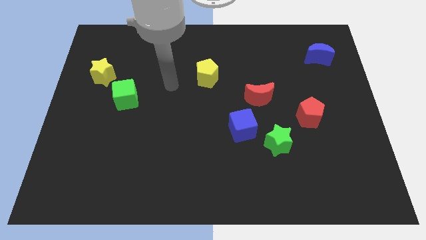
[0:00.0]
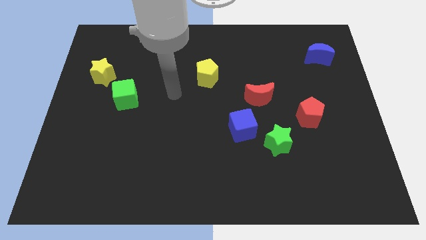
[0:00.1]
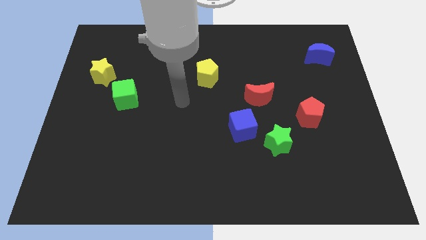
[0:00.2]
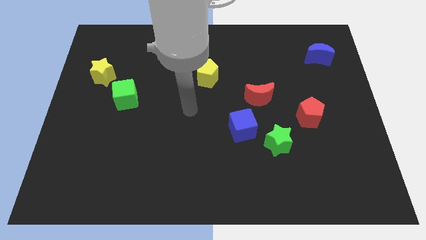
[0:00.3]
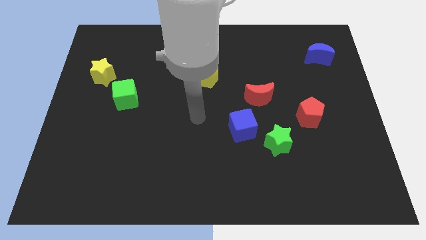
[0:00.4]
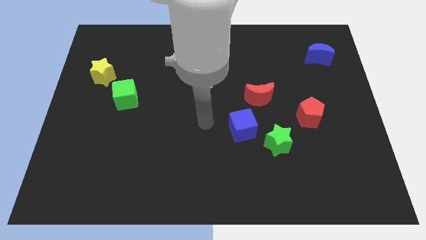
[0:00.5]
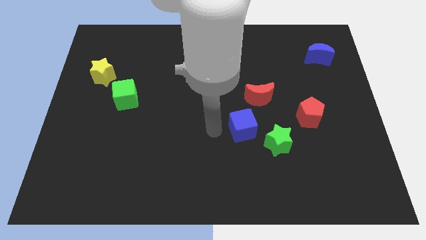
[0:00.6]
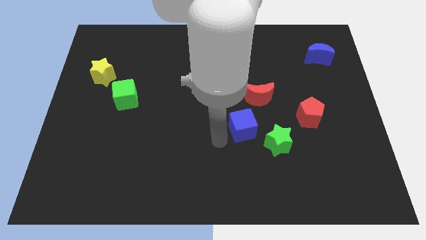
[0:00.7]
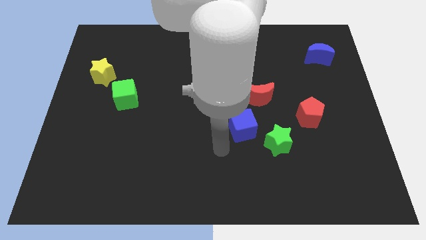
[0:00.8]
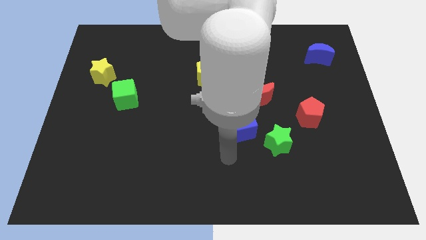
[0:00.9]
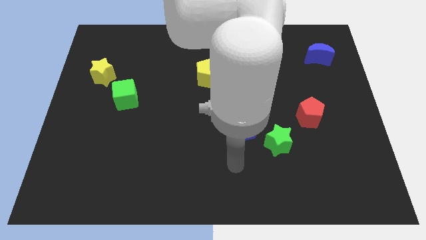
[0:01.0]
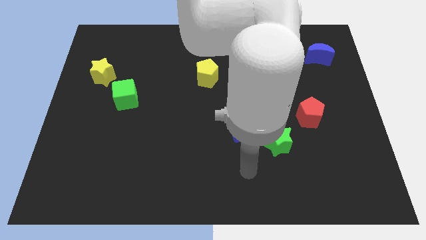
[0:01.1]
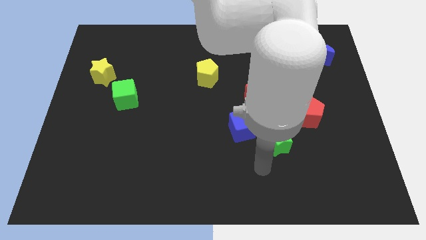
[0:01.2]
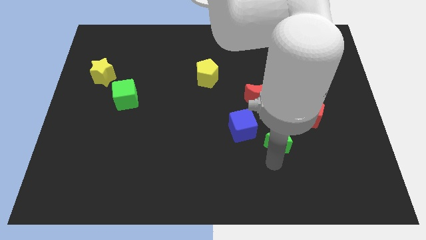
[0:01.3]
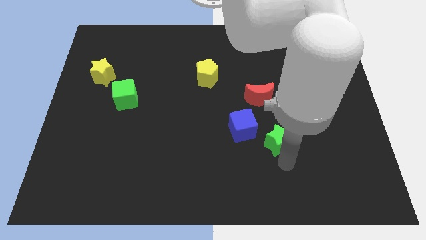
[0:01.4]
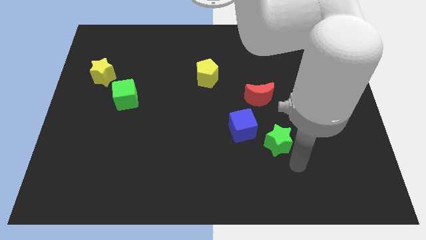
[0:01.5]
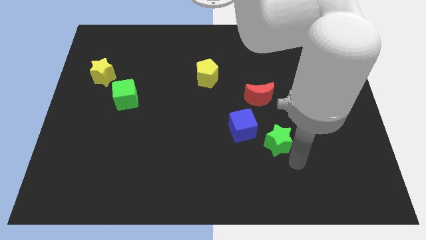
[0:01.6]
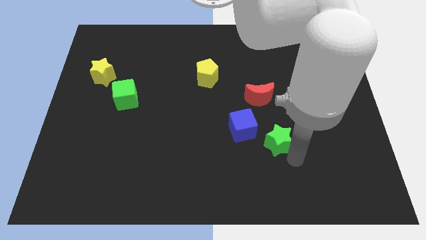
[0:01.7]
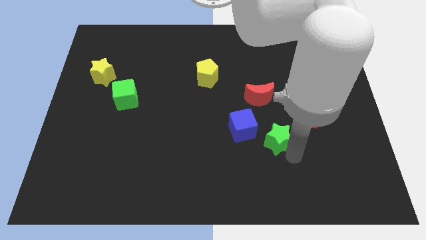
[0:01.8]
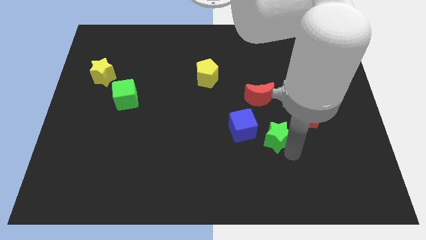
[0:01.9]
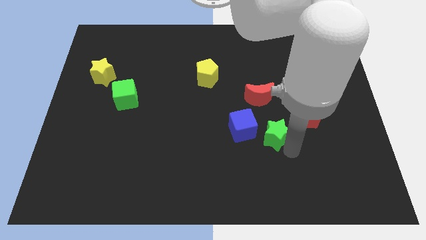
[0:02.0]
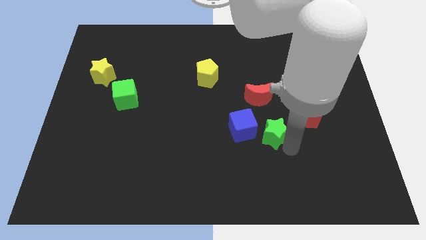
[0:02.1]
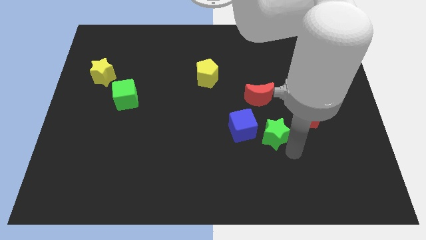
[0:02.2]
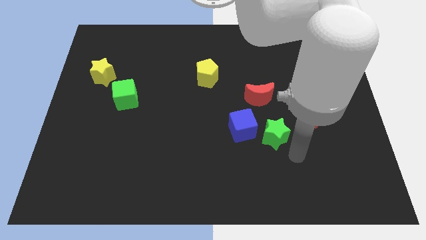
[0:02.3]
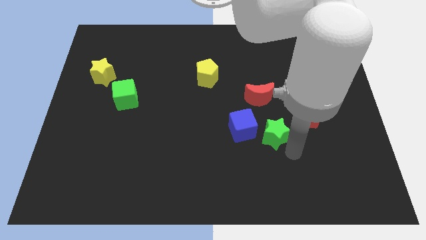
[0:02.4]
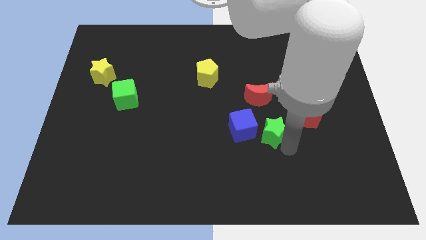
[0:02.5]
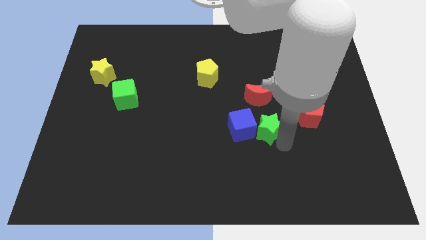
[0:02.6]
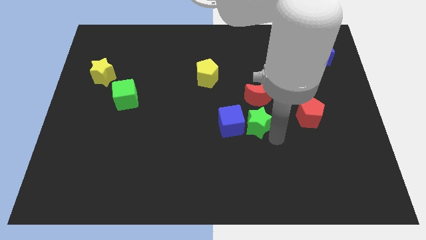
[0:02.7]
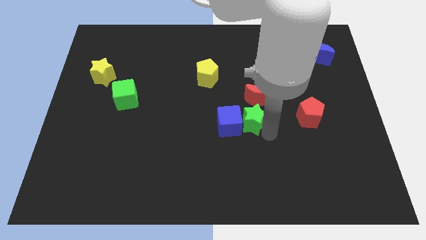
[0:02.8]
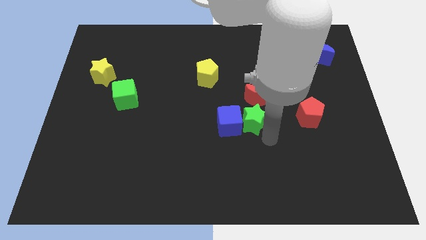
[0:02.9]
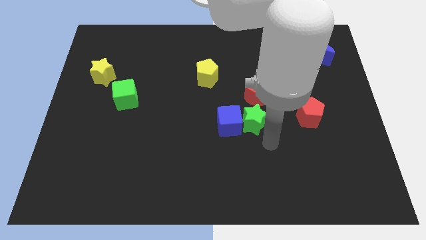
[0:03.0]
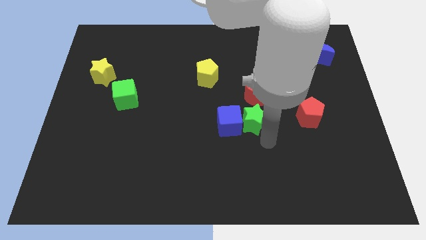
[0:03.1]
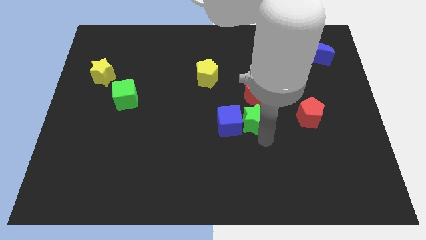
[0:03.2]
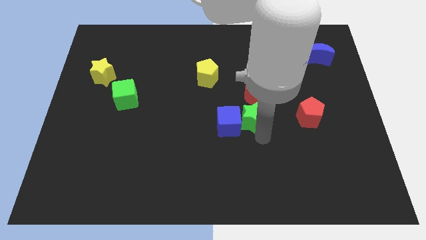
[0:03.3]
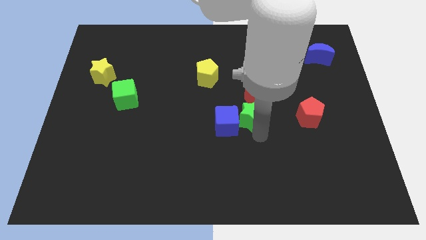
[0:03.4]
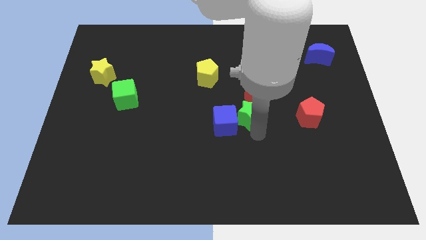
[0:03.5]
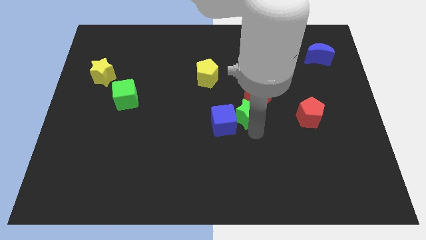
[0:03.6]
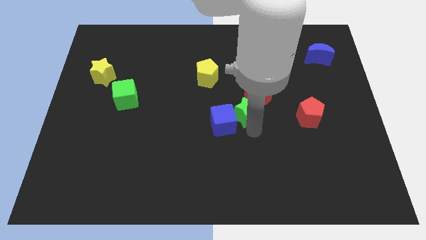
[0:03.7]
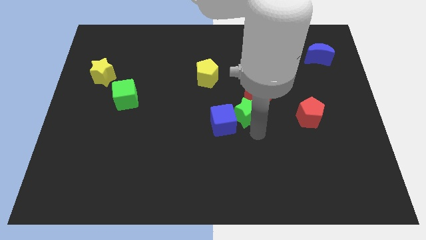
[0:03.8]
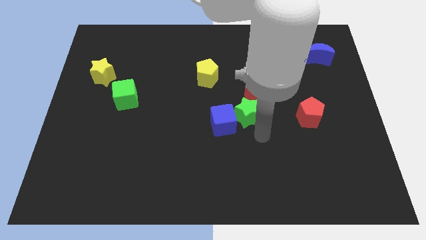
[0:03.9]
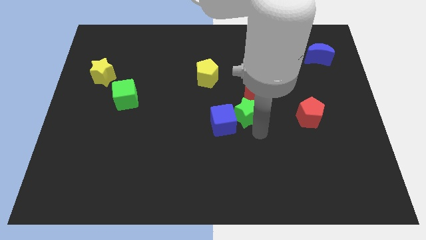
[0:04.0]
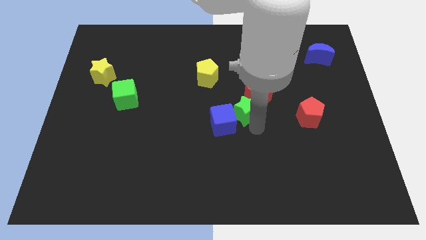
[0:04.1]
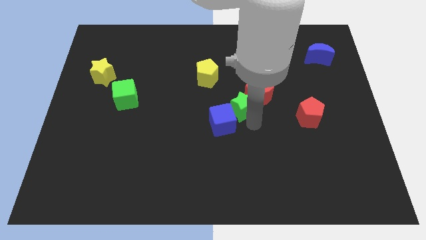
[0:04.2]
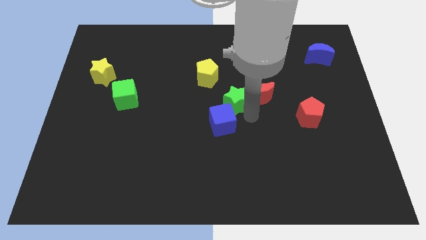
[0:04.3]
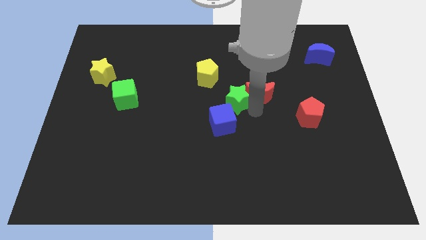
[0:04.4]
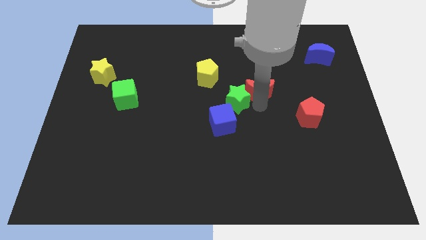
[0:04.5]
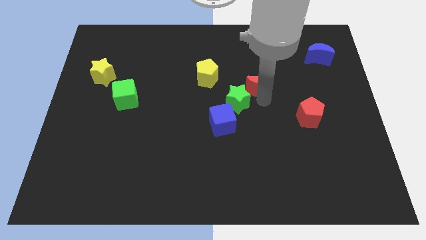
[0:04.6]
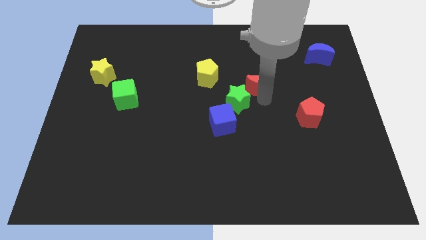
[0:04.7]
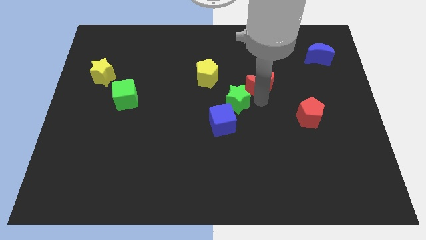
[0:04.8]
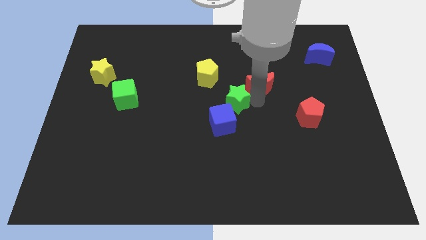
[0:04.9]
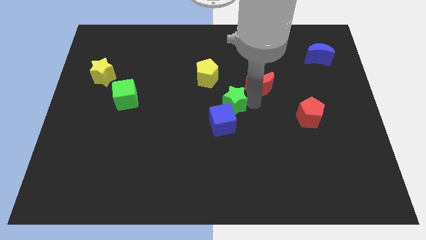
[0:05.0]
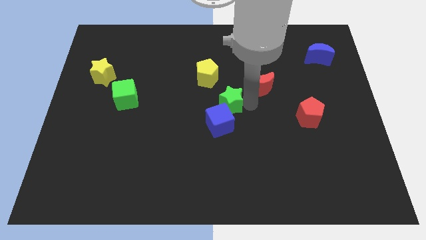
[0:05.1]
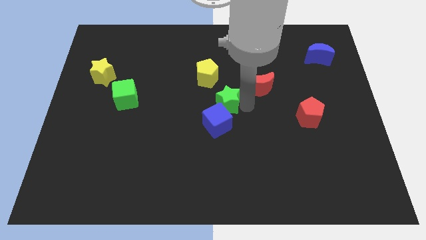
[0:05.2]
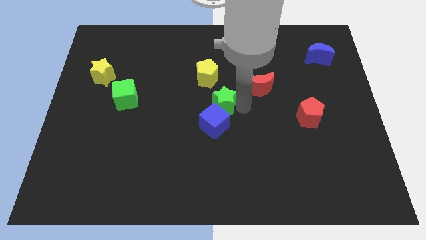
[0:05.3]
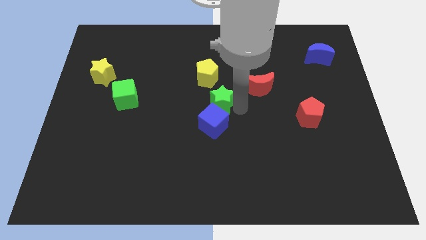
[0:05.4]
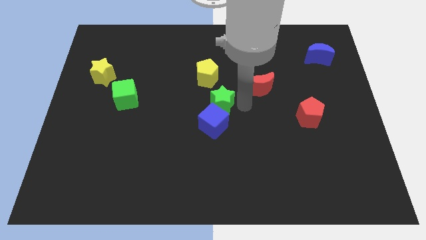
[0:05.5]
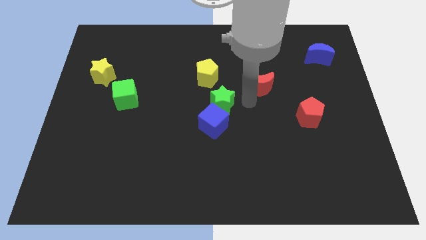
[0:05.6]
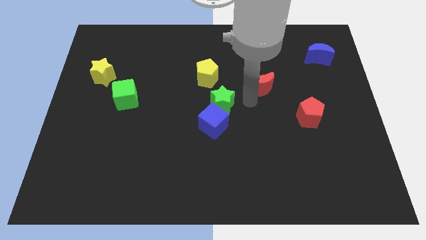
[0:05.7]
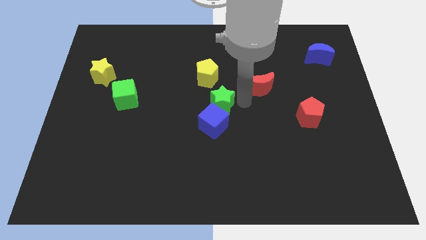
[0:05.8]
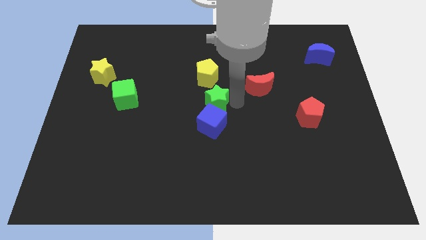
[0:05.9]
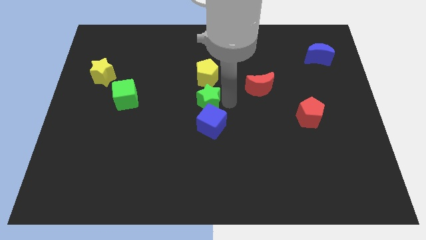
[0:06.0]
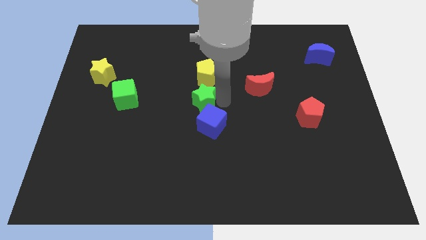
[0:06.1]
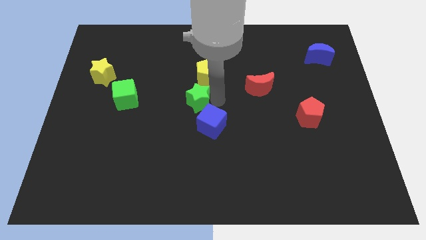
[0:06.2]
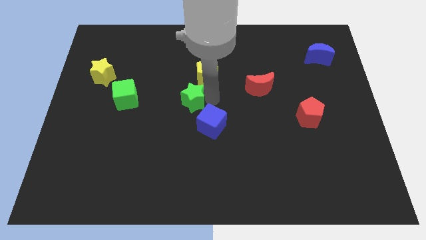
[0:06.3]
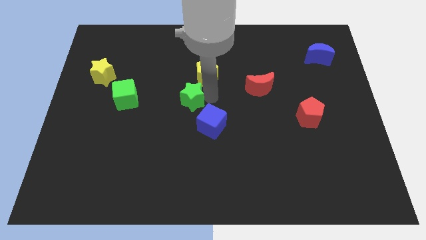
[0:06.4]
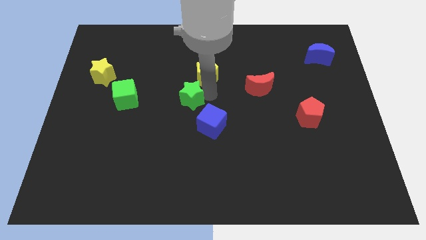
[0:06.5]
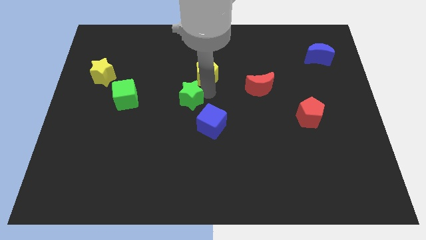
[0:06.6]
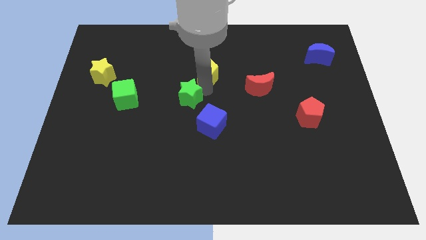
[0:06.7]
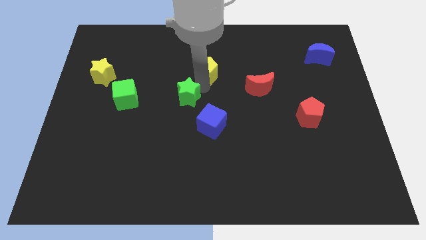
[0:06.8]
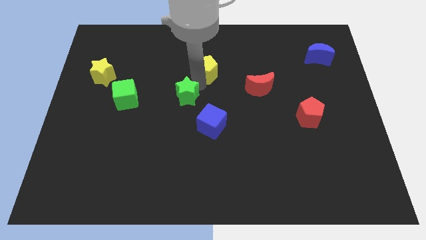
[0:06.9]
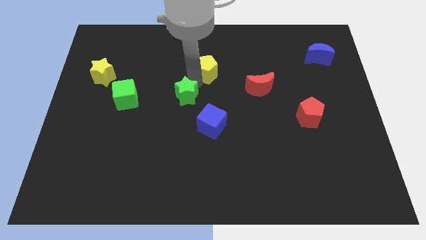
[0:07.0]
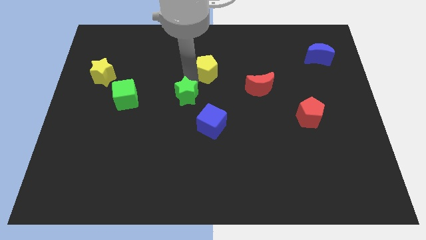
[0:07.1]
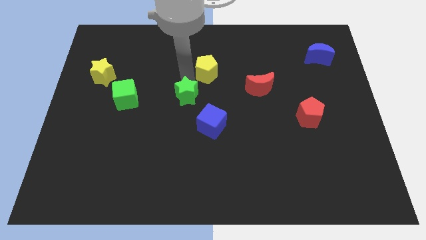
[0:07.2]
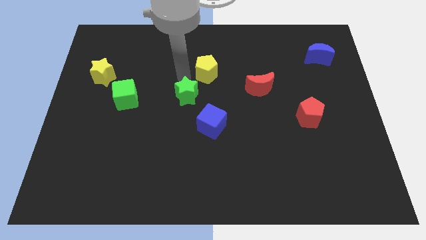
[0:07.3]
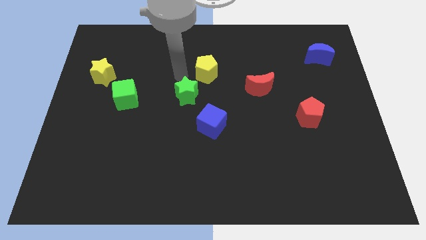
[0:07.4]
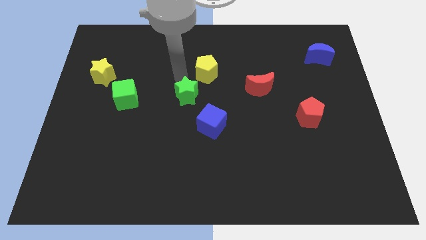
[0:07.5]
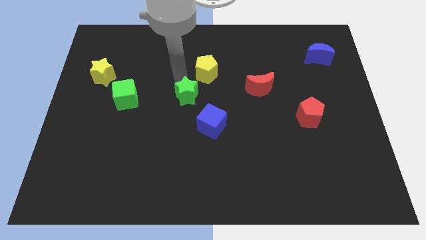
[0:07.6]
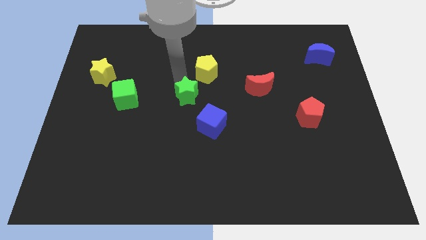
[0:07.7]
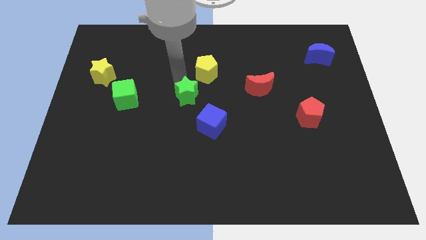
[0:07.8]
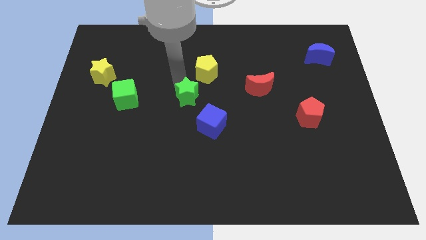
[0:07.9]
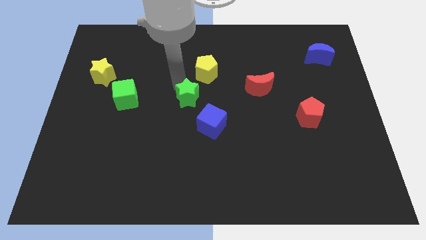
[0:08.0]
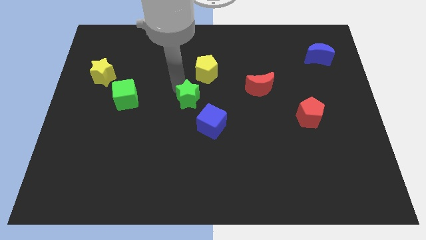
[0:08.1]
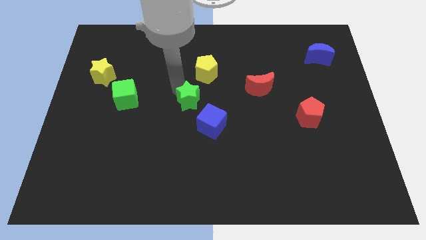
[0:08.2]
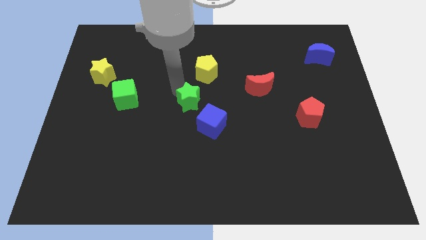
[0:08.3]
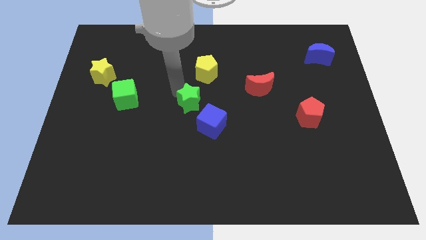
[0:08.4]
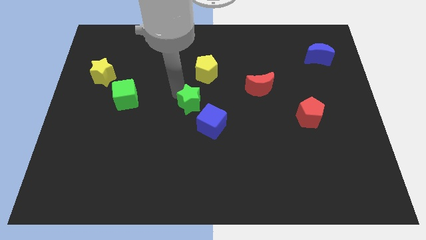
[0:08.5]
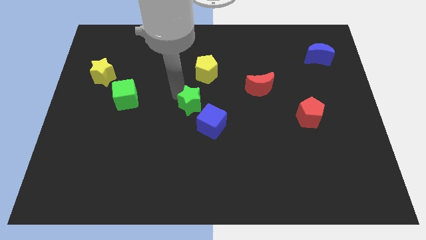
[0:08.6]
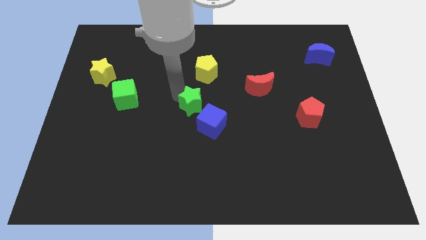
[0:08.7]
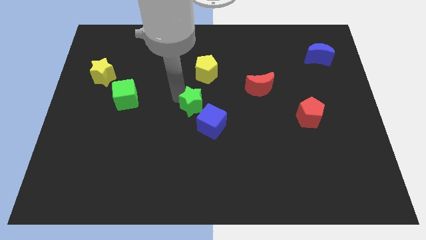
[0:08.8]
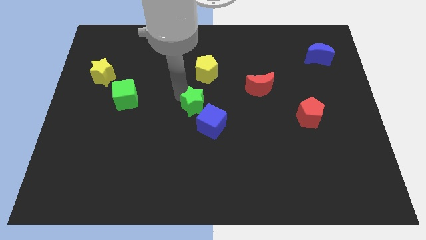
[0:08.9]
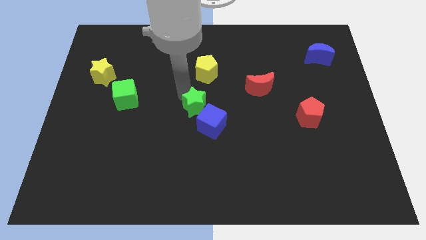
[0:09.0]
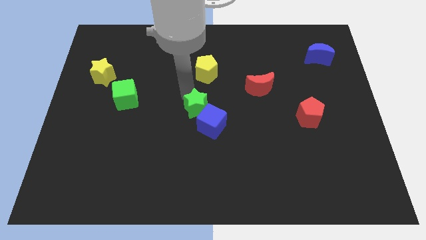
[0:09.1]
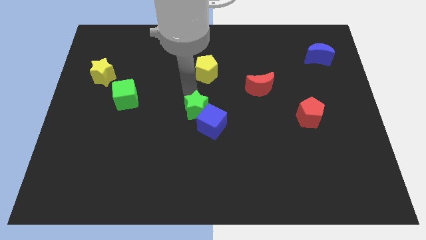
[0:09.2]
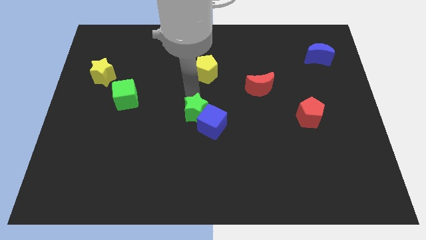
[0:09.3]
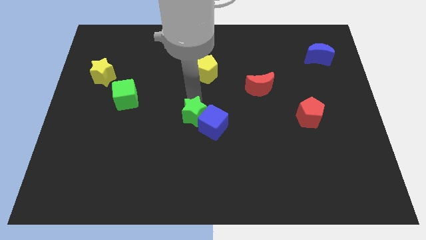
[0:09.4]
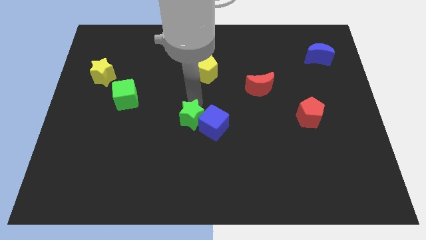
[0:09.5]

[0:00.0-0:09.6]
push the green star to the top left side of the blue cube
